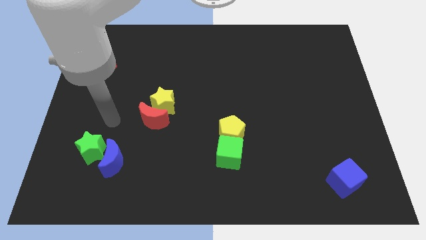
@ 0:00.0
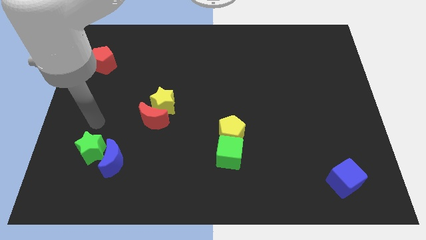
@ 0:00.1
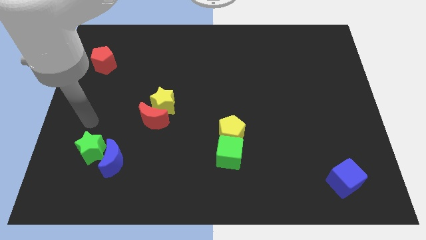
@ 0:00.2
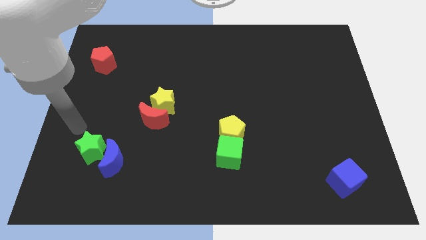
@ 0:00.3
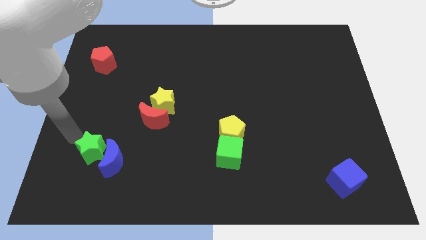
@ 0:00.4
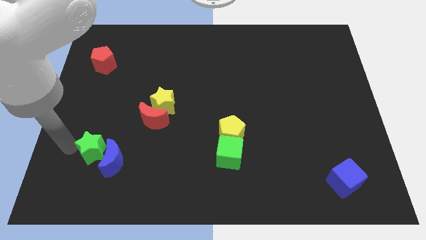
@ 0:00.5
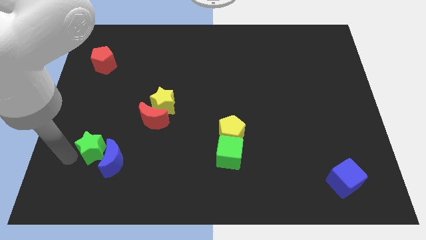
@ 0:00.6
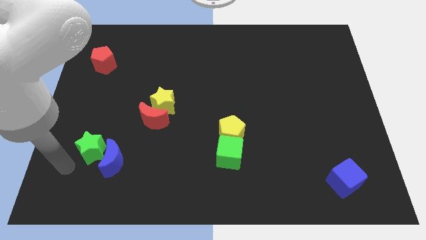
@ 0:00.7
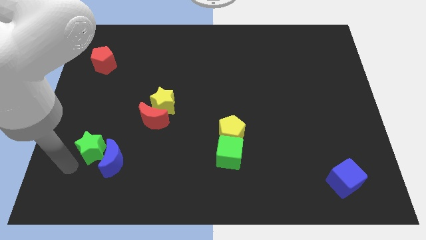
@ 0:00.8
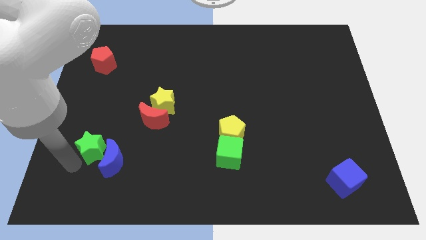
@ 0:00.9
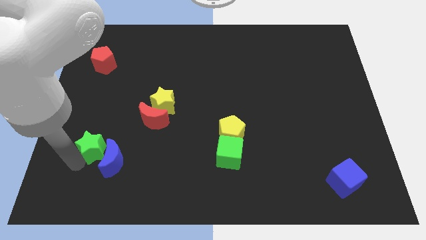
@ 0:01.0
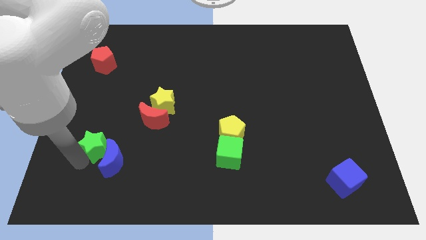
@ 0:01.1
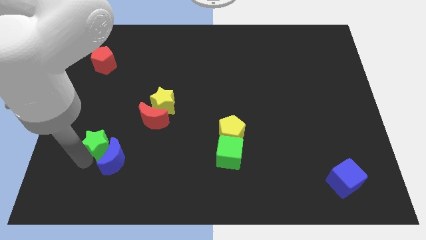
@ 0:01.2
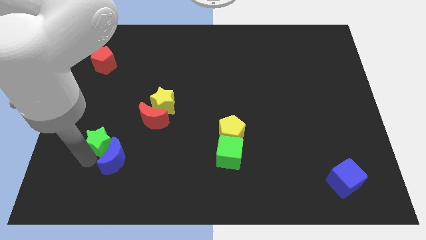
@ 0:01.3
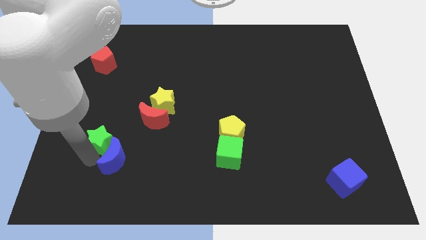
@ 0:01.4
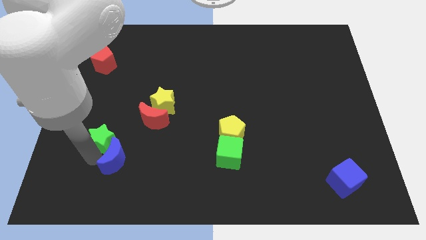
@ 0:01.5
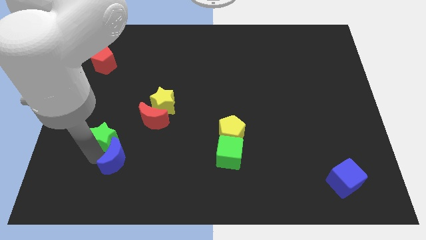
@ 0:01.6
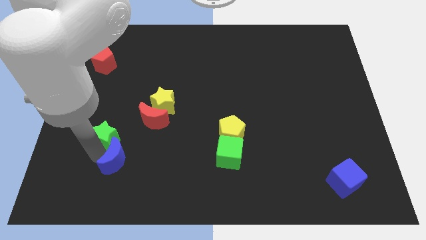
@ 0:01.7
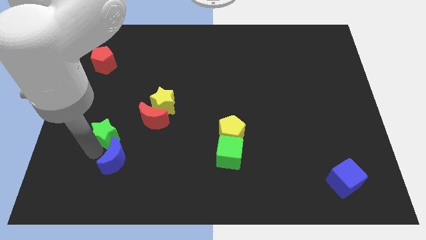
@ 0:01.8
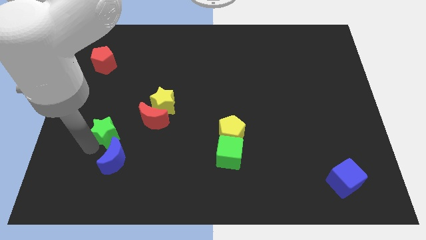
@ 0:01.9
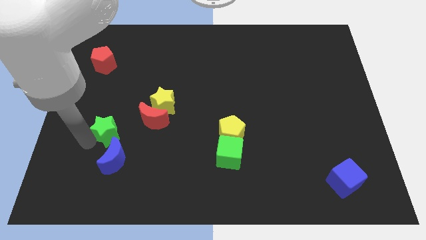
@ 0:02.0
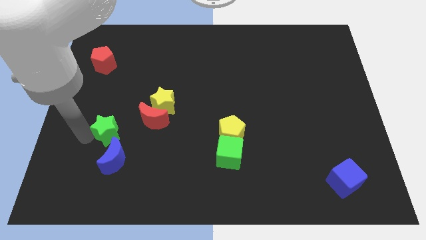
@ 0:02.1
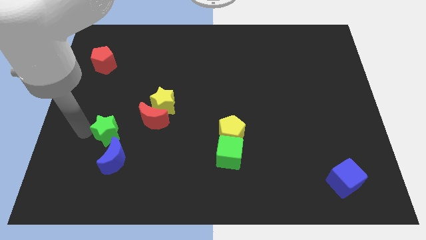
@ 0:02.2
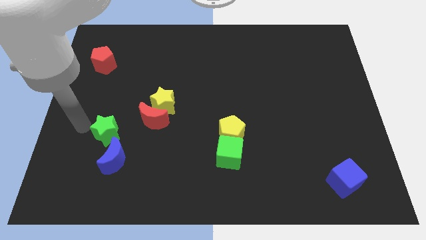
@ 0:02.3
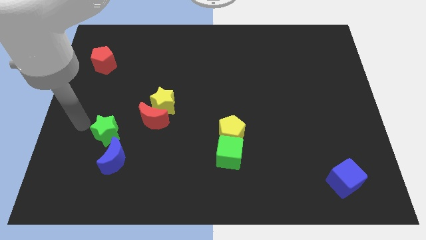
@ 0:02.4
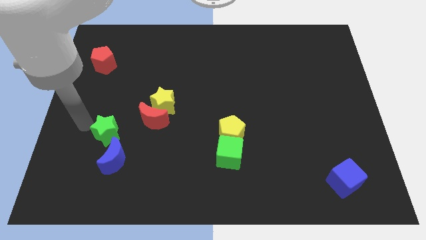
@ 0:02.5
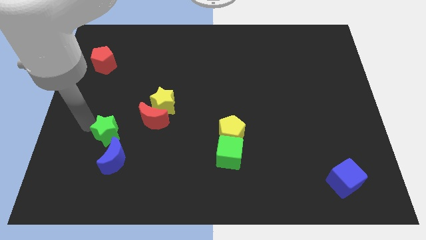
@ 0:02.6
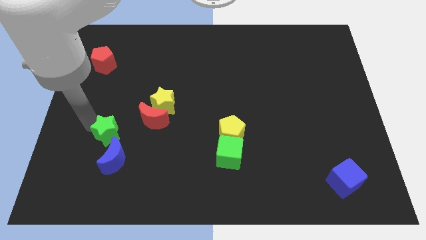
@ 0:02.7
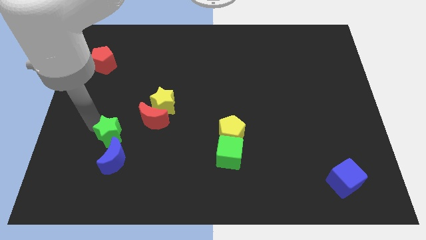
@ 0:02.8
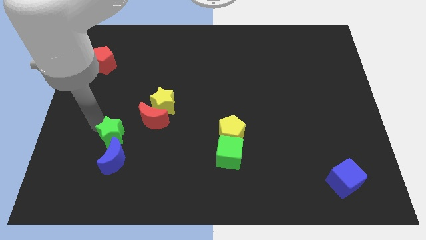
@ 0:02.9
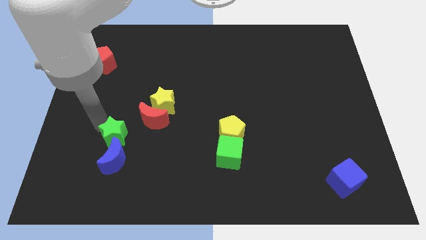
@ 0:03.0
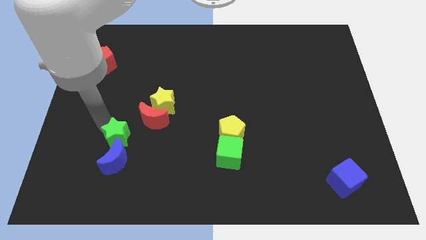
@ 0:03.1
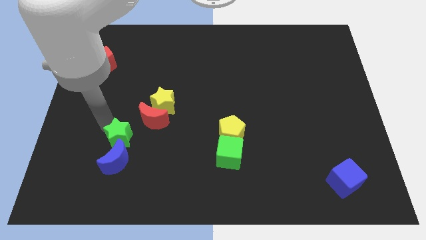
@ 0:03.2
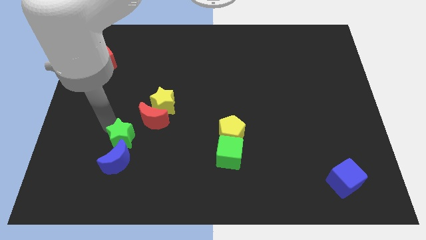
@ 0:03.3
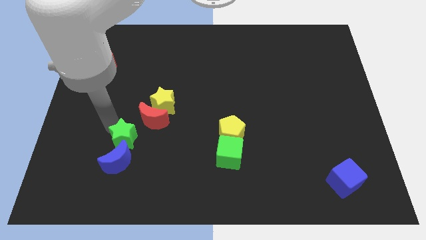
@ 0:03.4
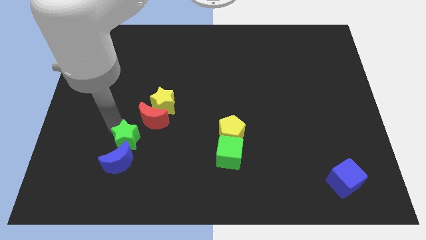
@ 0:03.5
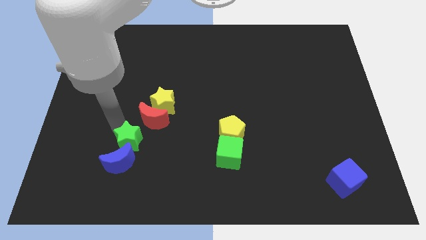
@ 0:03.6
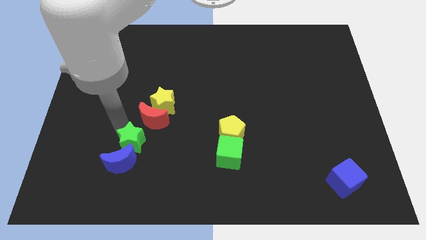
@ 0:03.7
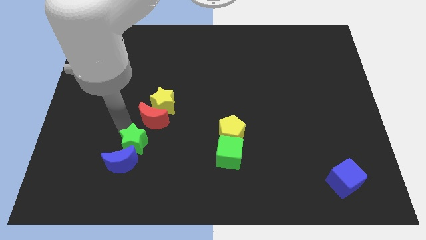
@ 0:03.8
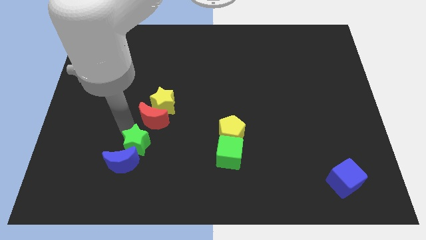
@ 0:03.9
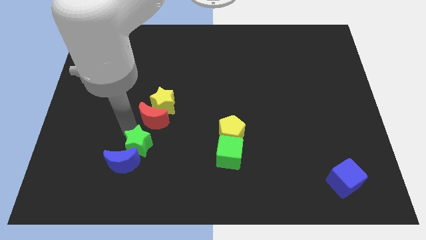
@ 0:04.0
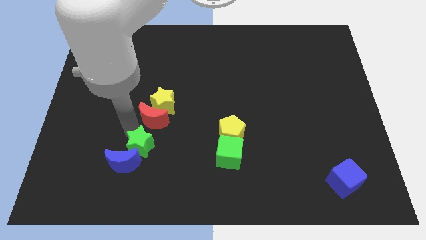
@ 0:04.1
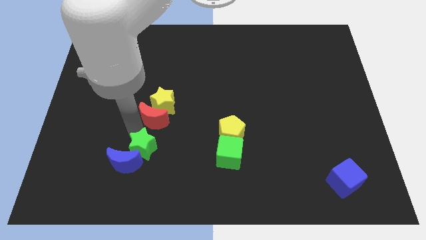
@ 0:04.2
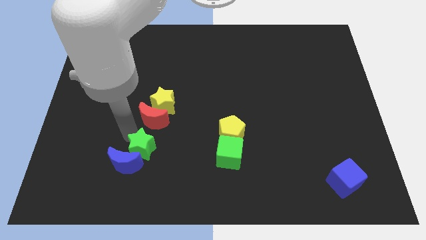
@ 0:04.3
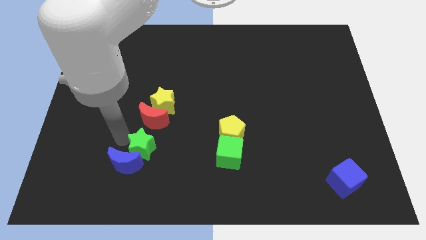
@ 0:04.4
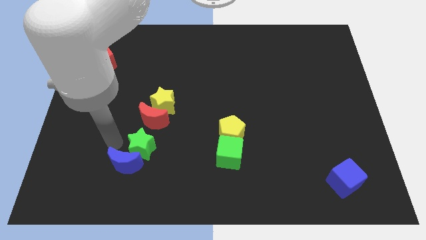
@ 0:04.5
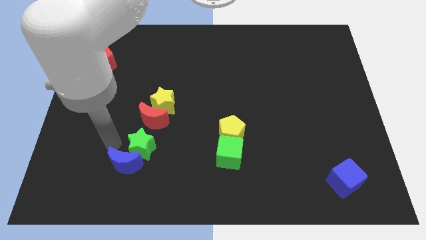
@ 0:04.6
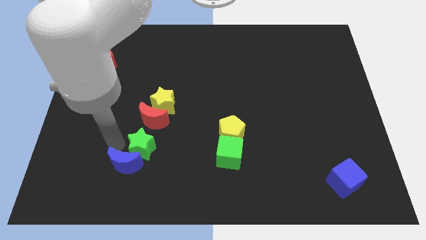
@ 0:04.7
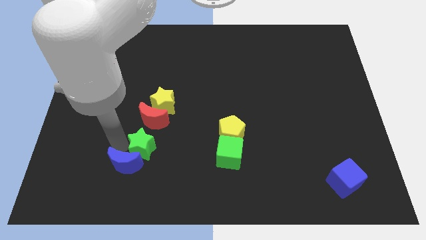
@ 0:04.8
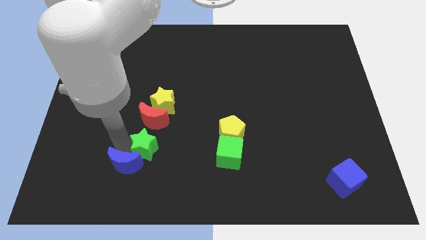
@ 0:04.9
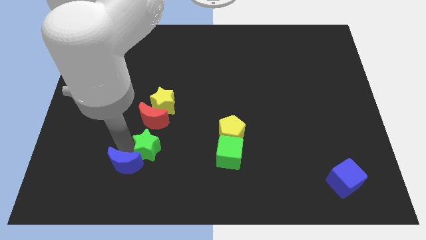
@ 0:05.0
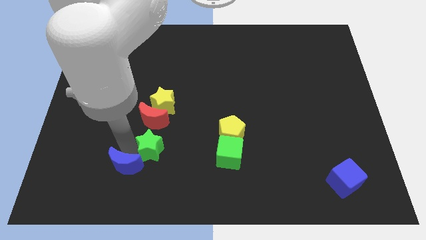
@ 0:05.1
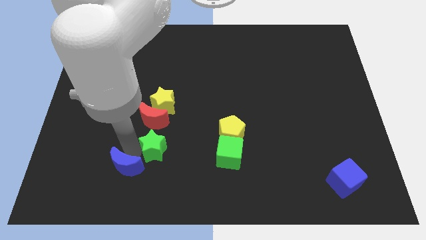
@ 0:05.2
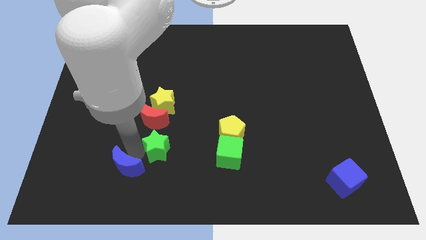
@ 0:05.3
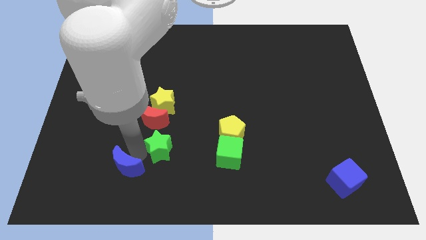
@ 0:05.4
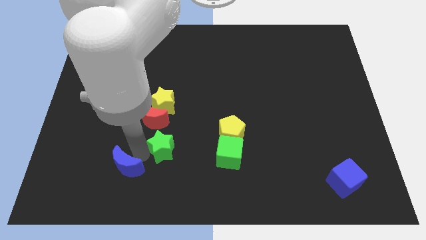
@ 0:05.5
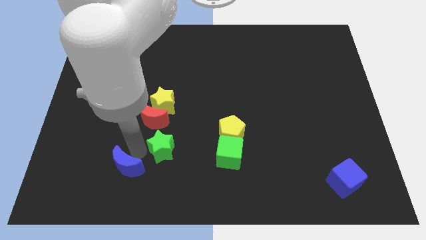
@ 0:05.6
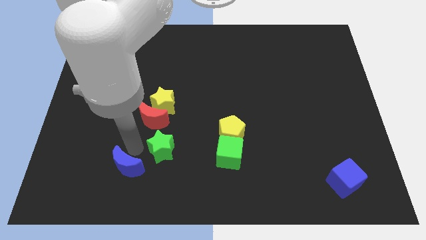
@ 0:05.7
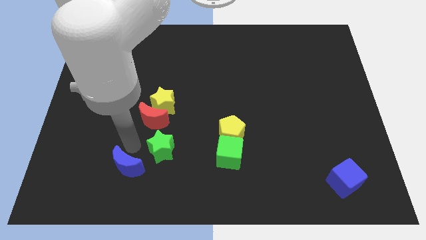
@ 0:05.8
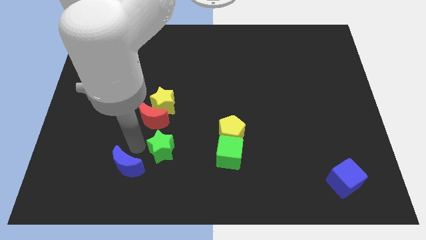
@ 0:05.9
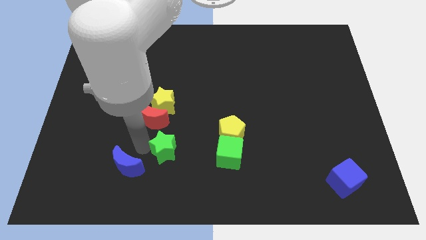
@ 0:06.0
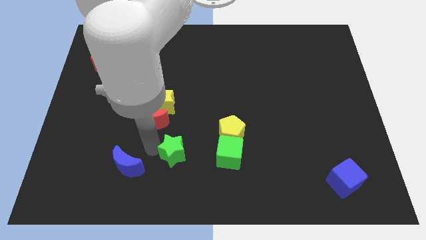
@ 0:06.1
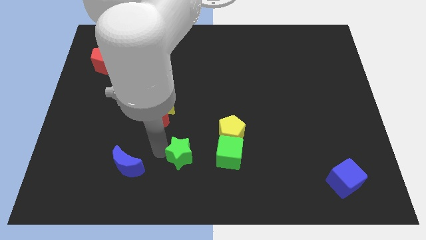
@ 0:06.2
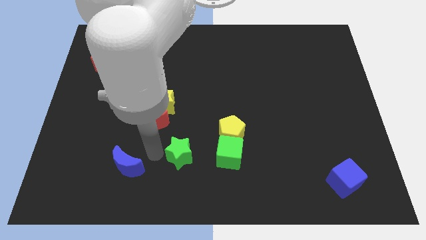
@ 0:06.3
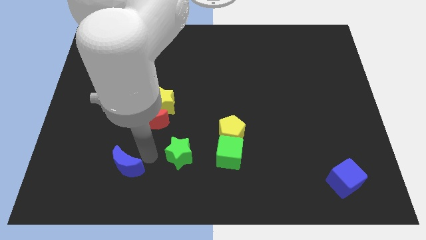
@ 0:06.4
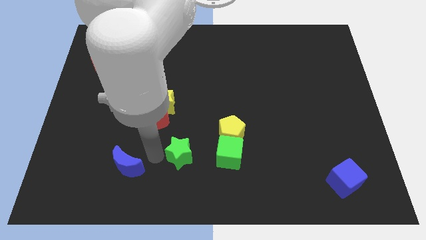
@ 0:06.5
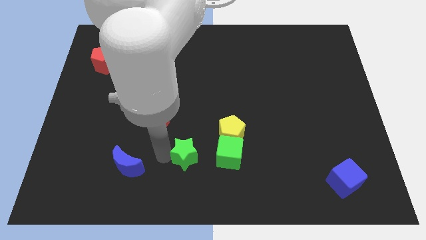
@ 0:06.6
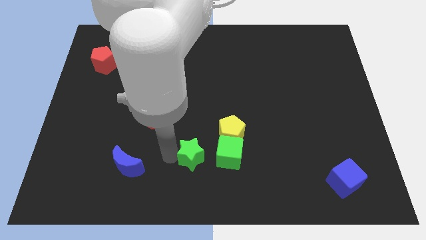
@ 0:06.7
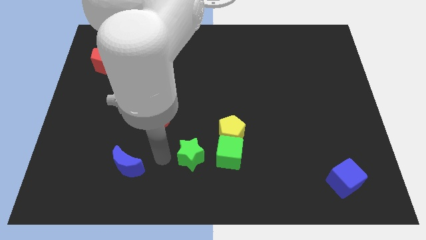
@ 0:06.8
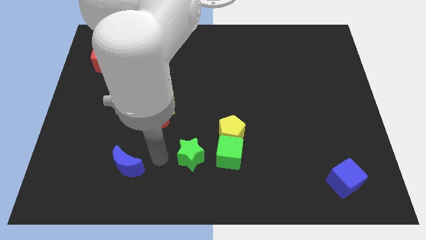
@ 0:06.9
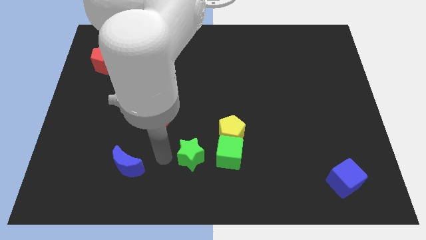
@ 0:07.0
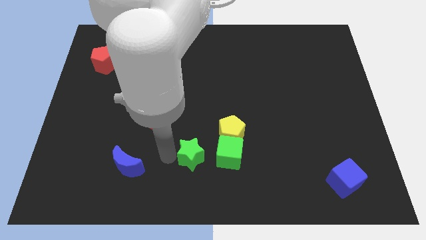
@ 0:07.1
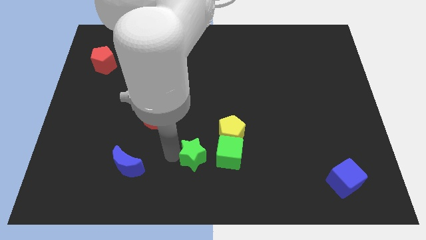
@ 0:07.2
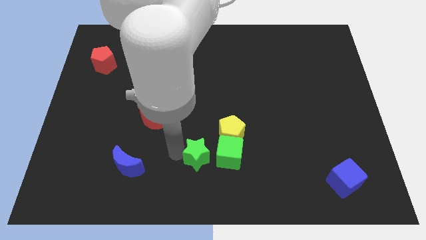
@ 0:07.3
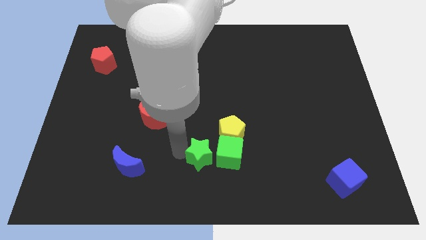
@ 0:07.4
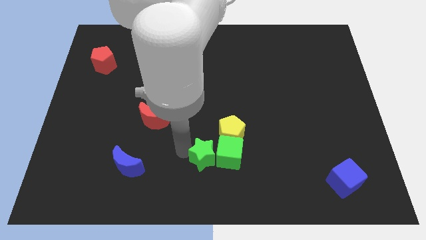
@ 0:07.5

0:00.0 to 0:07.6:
slide the green star next to the green cube

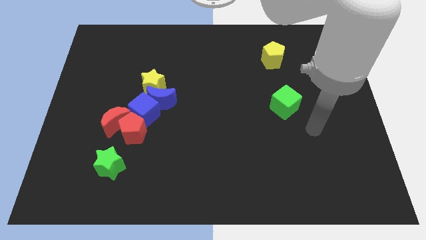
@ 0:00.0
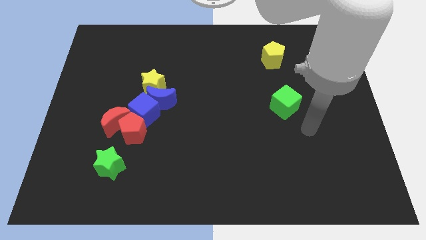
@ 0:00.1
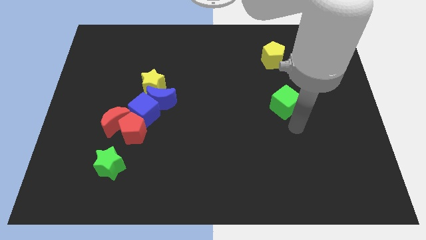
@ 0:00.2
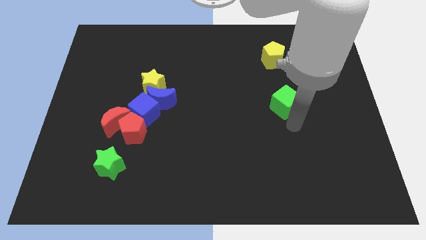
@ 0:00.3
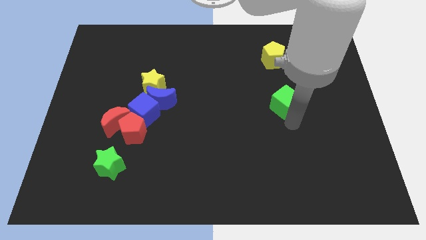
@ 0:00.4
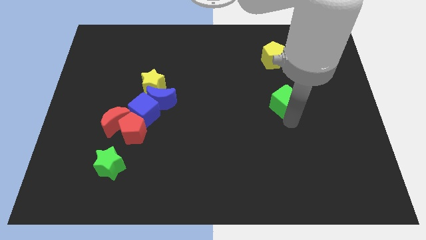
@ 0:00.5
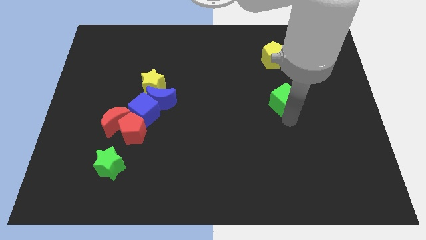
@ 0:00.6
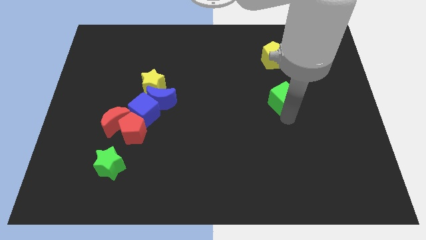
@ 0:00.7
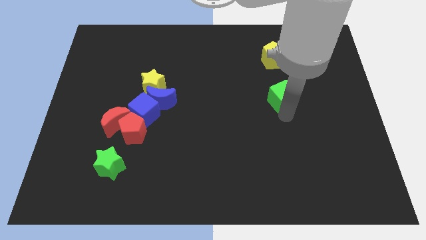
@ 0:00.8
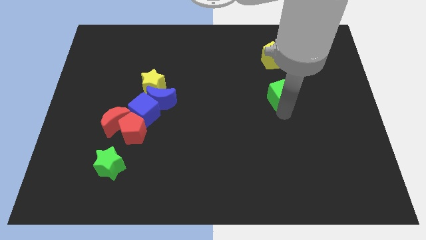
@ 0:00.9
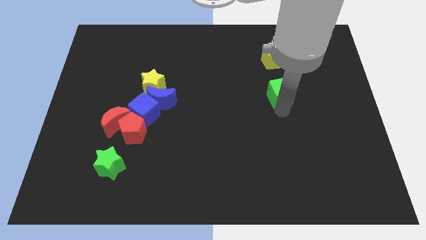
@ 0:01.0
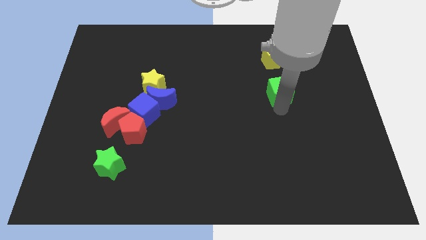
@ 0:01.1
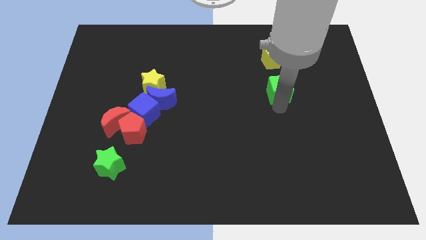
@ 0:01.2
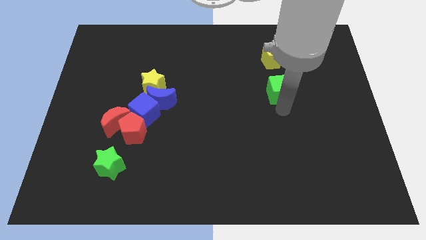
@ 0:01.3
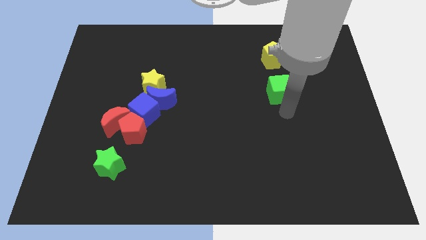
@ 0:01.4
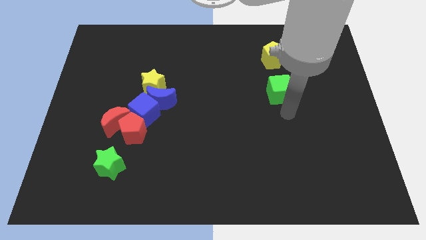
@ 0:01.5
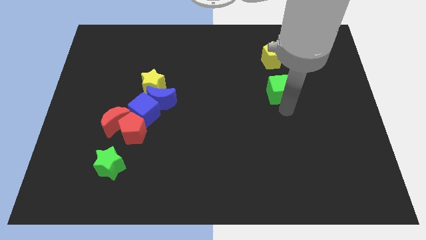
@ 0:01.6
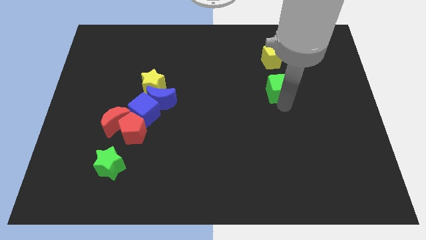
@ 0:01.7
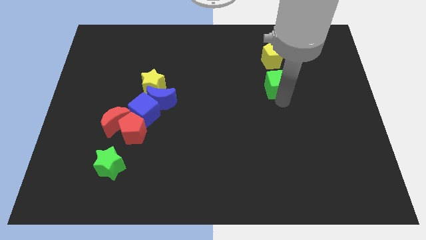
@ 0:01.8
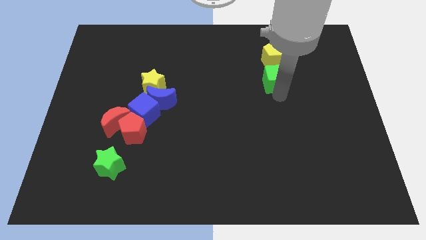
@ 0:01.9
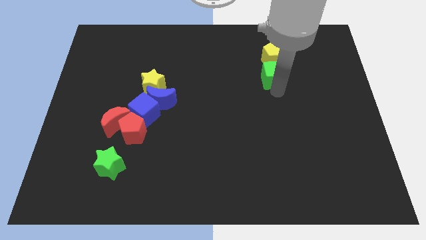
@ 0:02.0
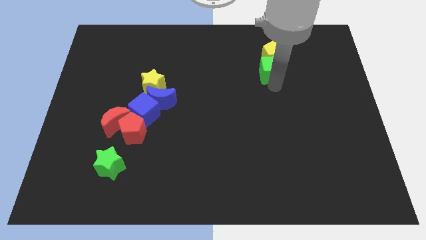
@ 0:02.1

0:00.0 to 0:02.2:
slide the green cube to the yellow pentagon
